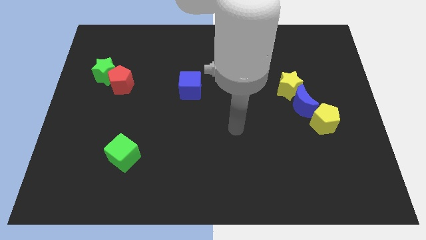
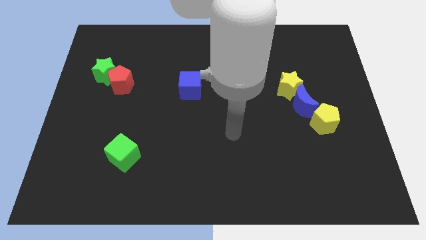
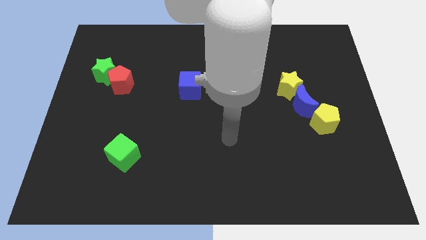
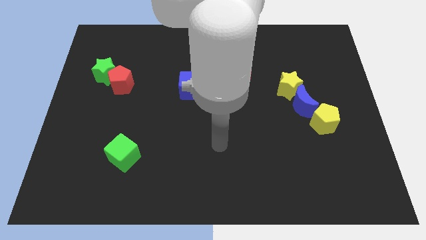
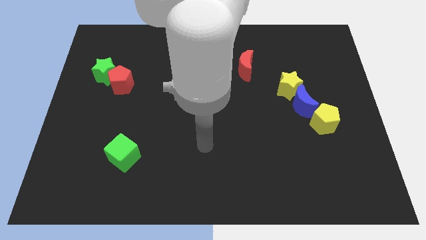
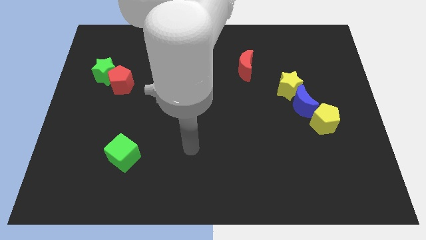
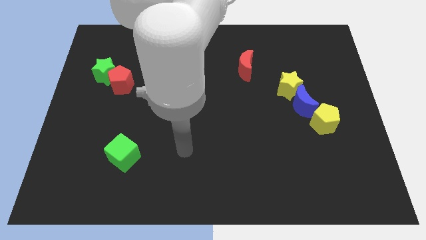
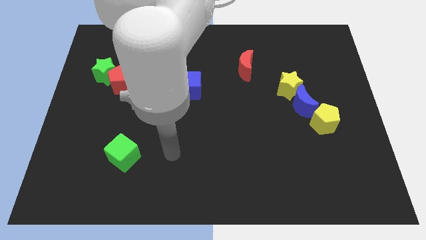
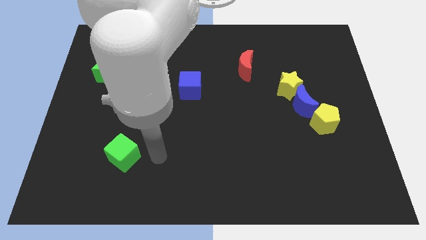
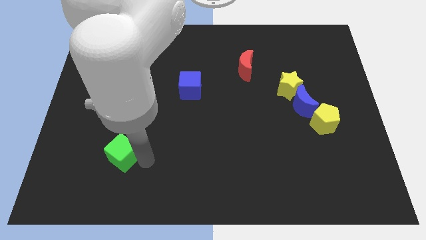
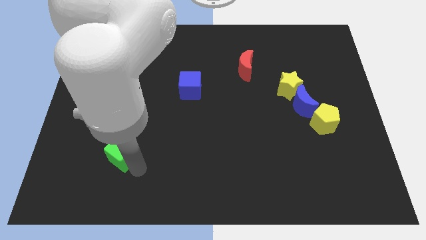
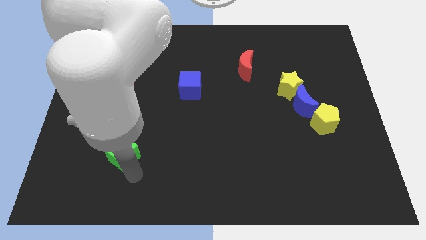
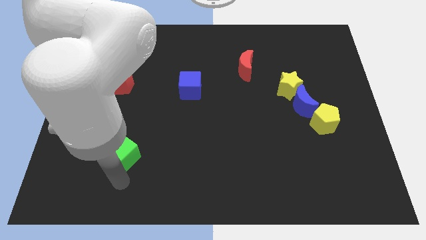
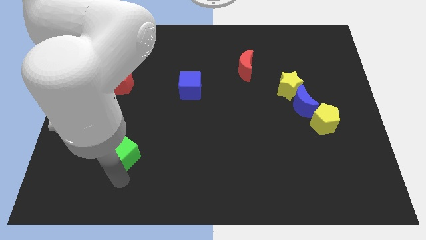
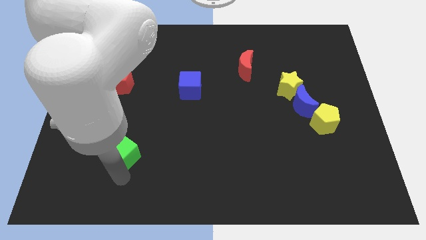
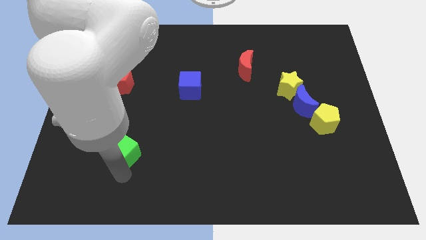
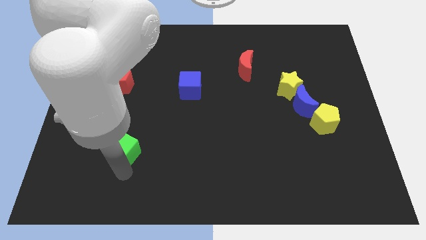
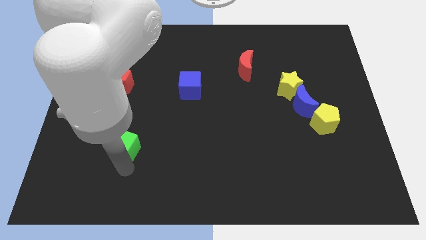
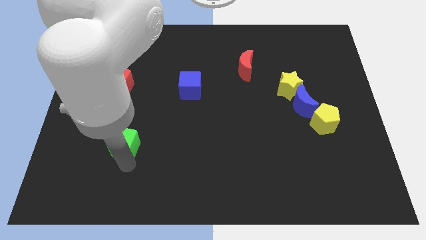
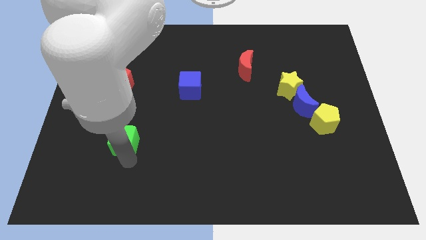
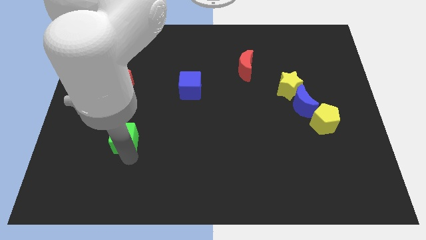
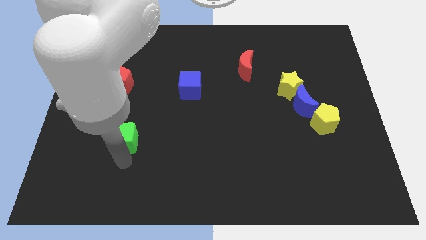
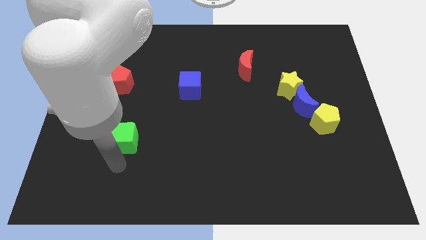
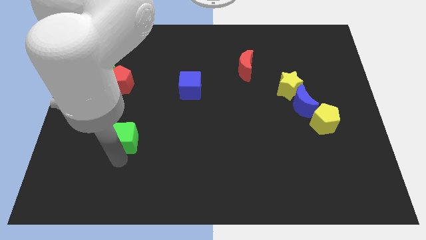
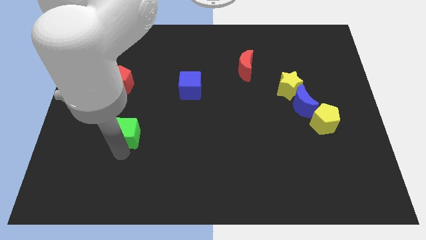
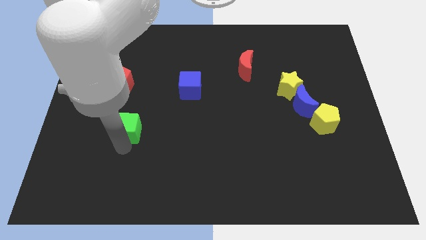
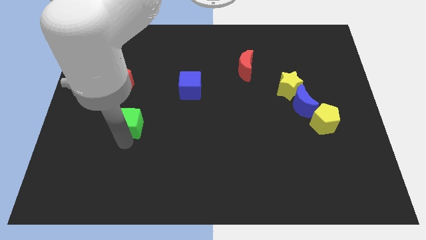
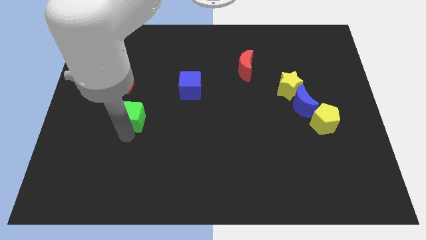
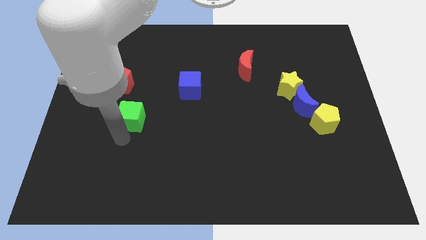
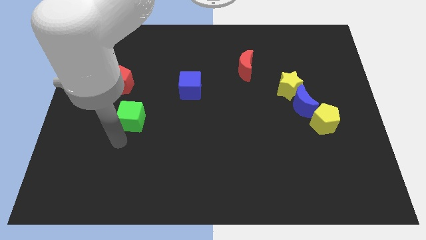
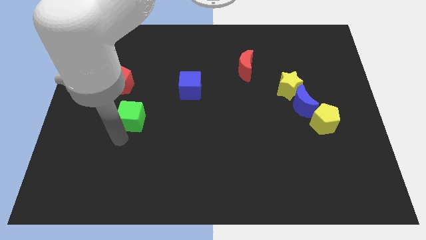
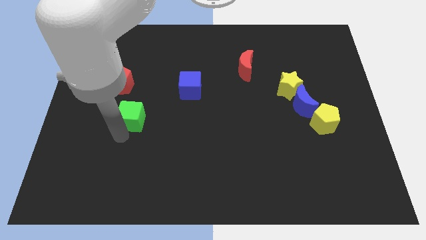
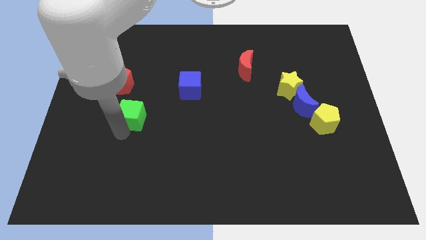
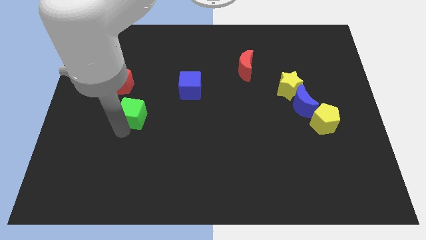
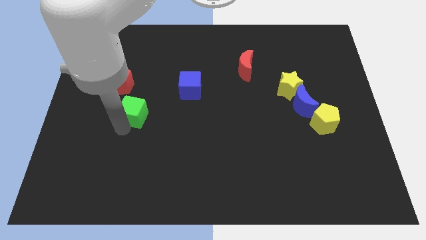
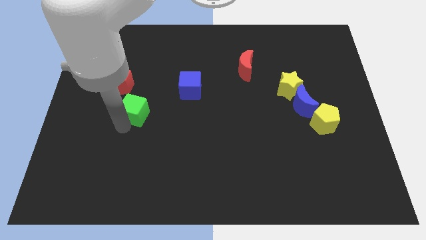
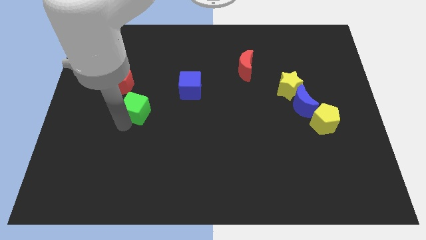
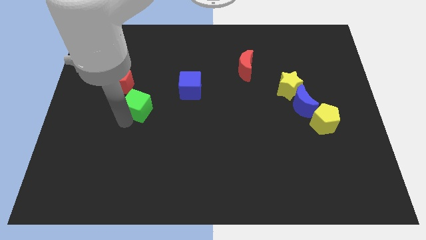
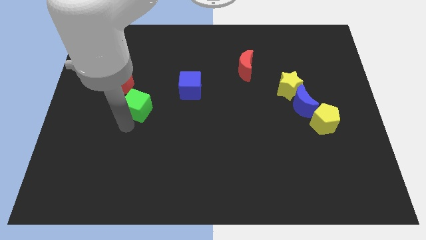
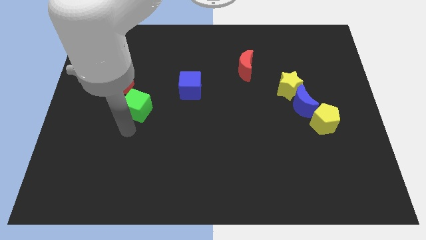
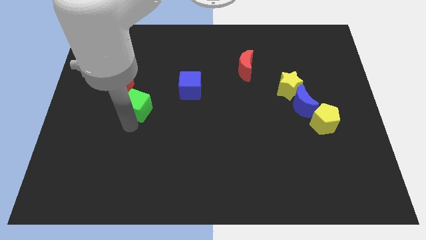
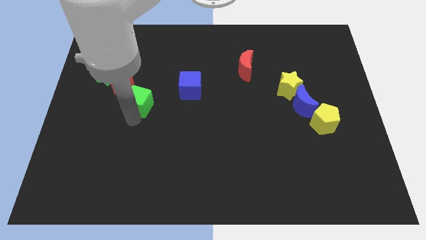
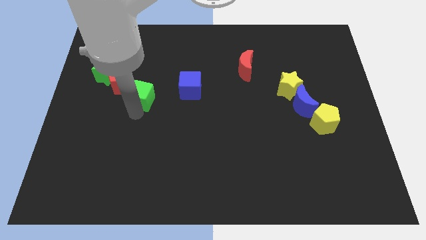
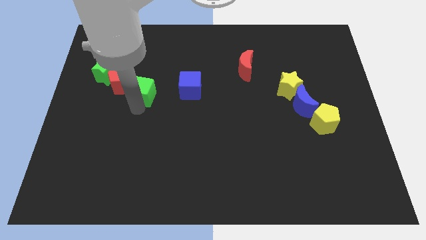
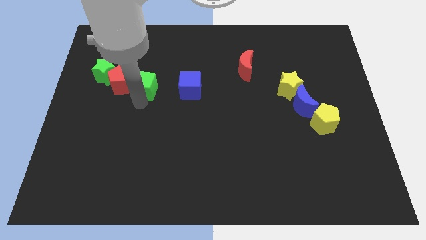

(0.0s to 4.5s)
slide the green cube to the right side of the green star

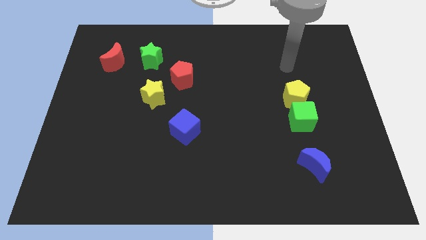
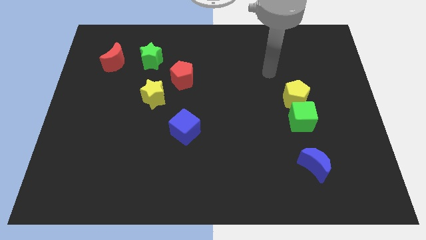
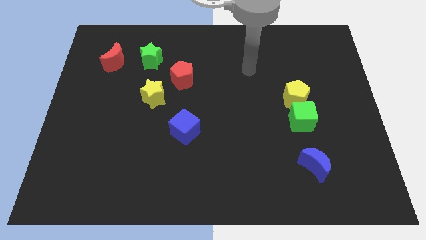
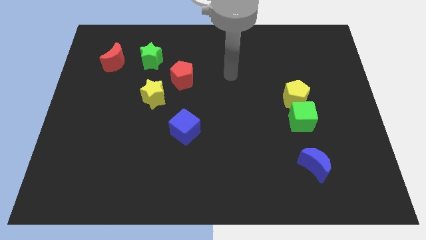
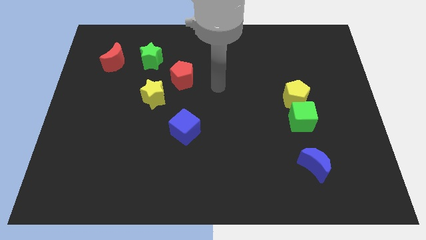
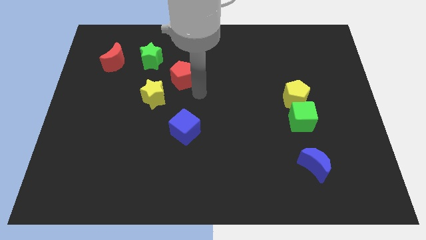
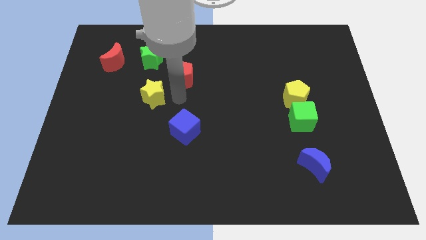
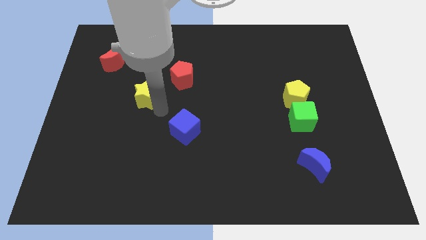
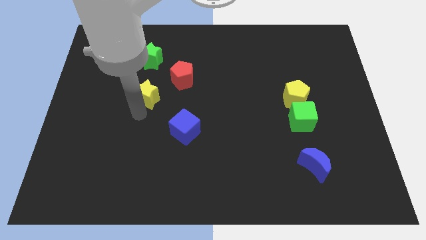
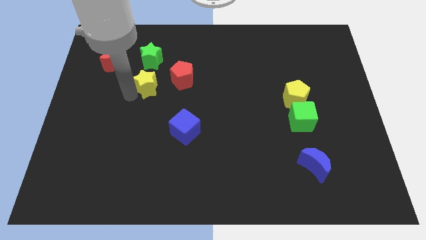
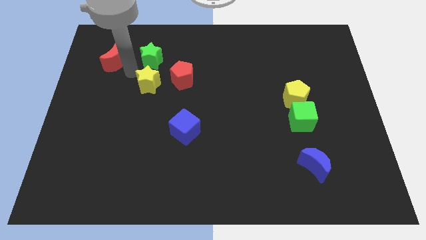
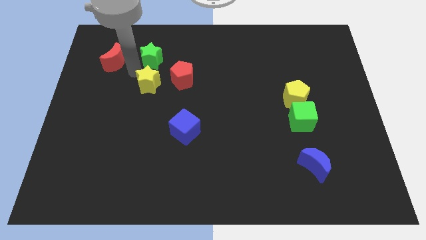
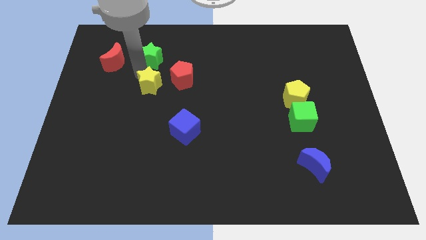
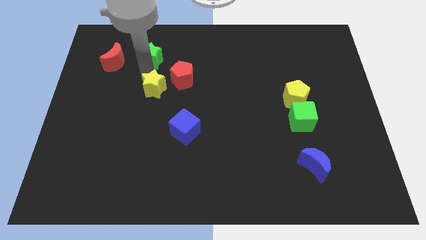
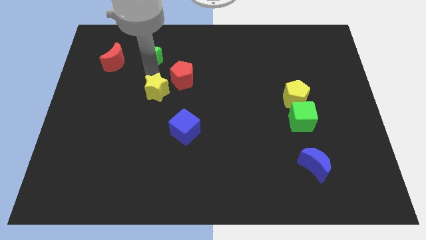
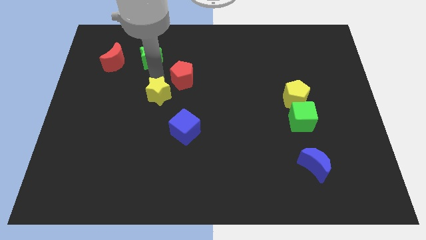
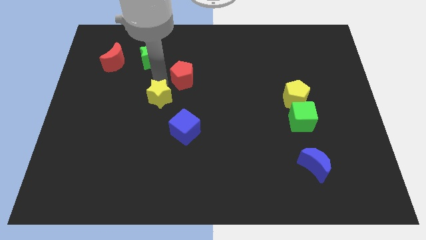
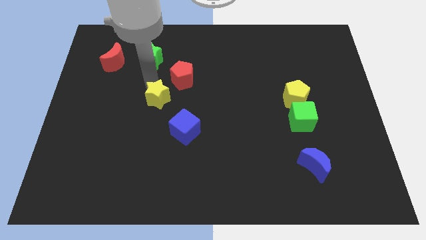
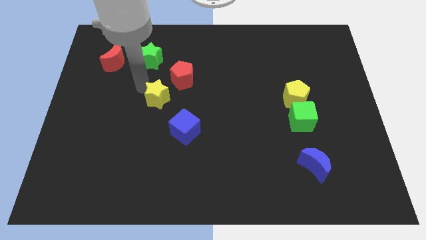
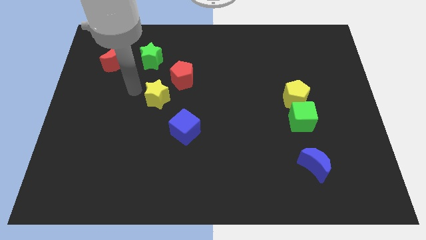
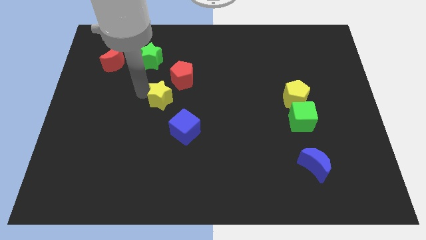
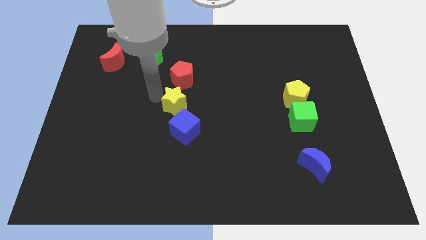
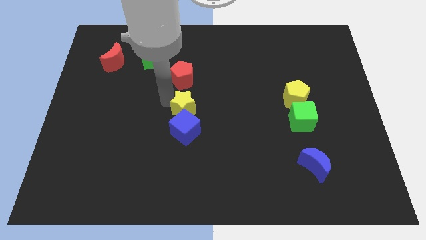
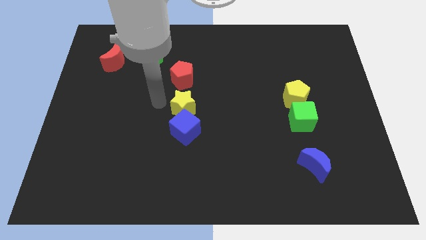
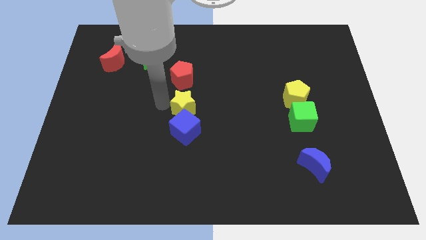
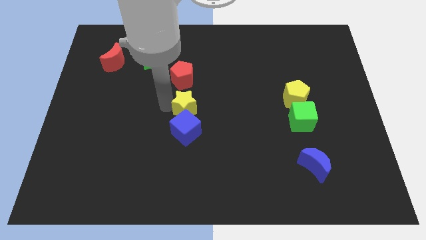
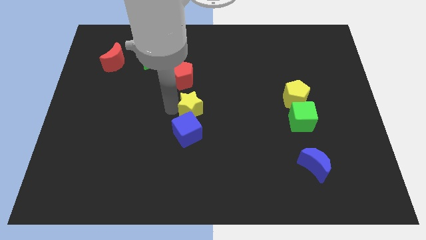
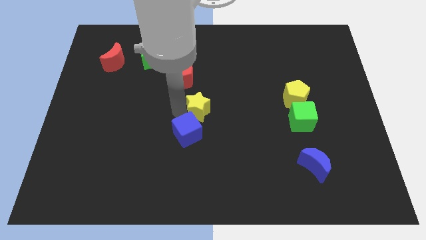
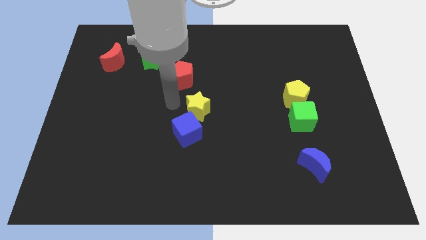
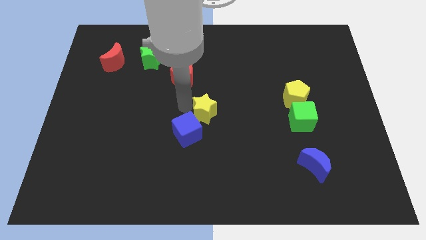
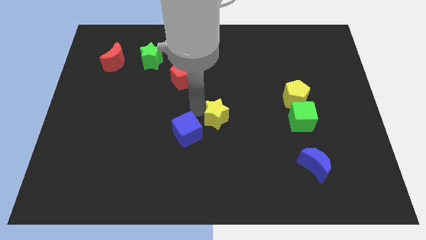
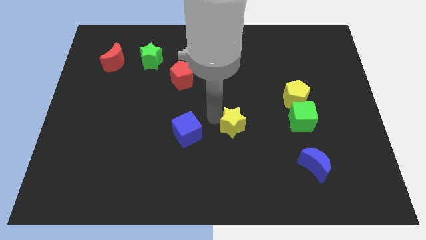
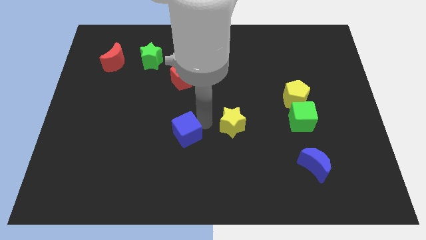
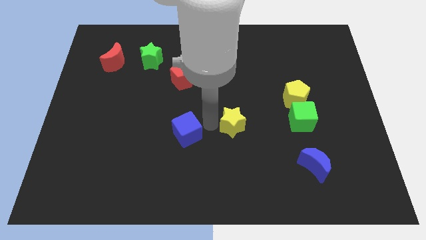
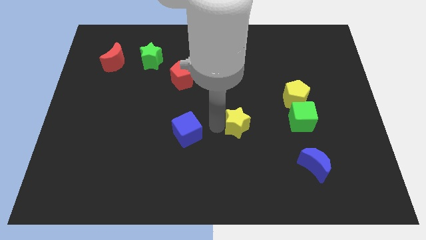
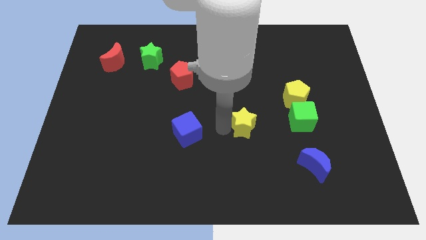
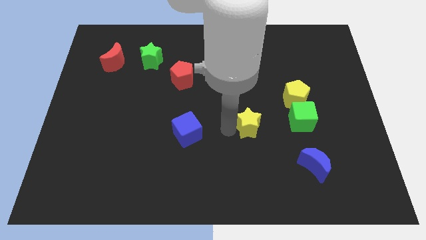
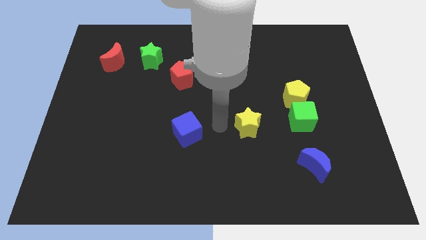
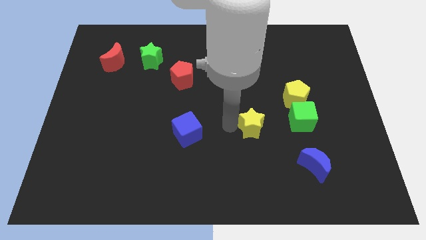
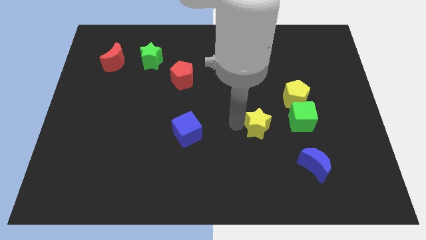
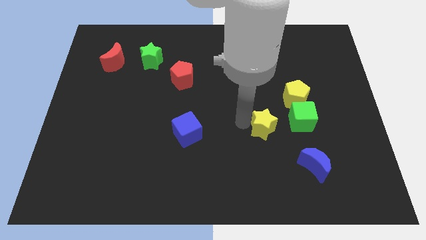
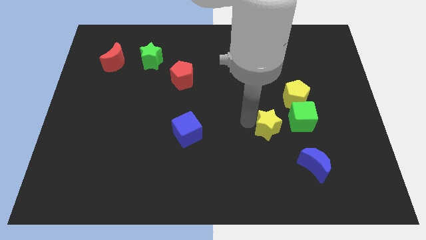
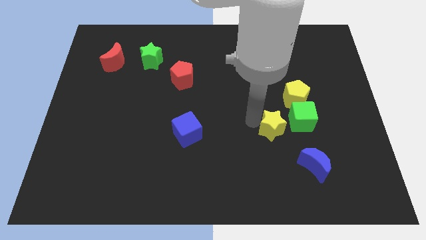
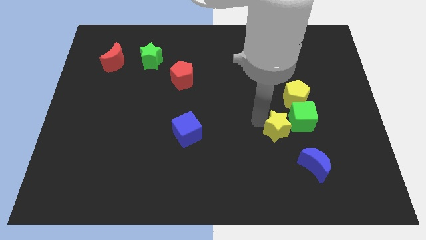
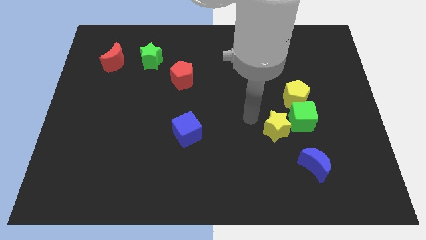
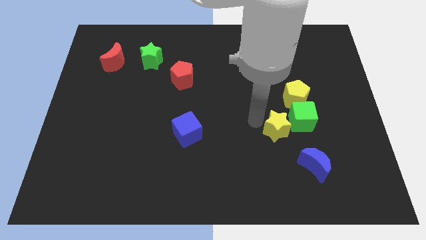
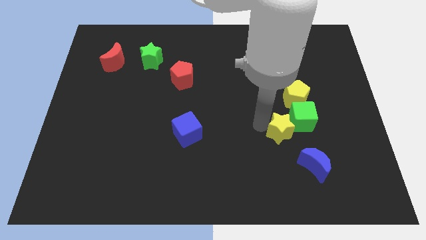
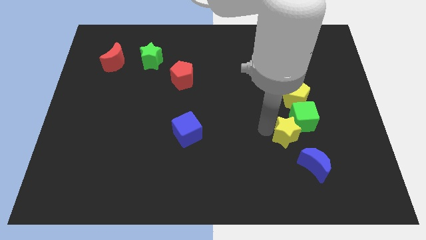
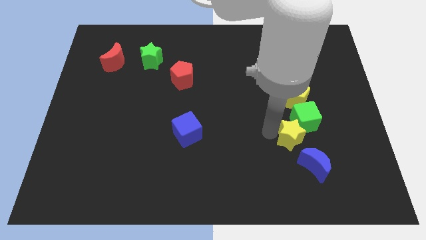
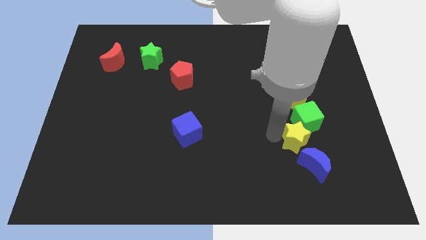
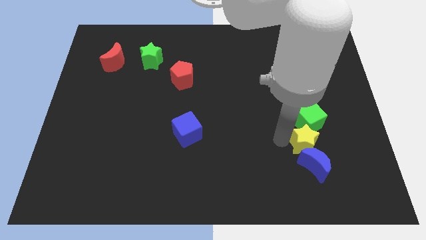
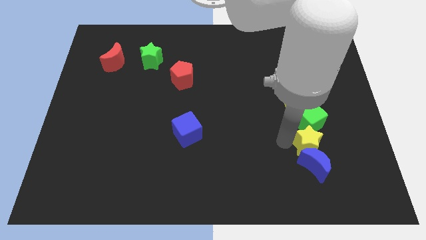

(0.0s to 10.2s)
push the yellow star to the top right side of the blue moon
